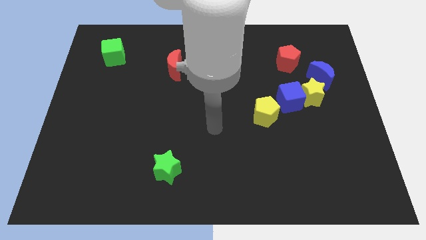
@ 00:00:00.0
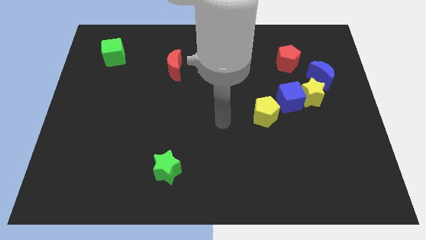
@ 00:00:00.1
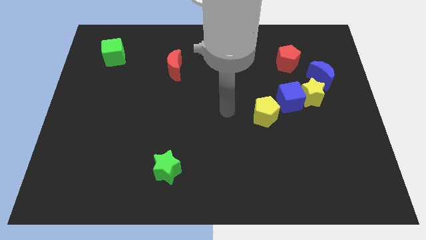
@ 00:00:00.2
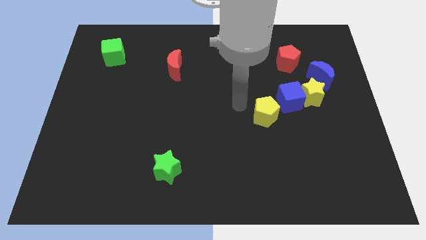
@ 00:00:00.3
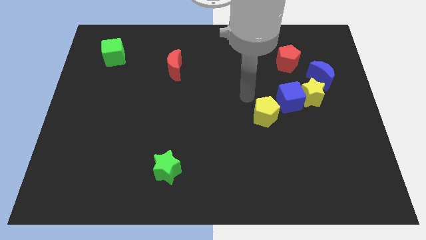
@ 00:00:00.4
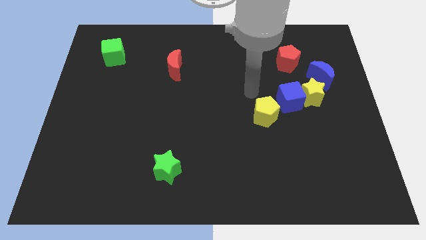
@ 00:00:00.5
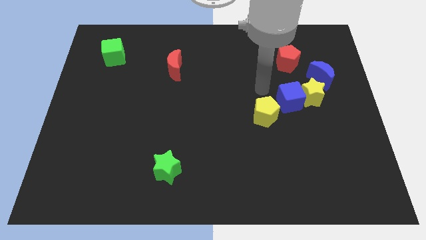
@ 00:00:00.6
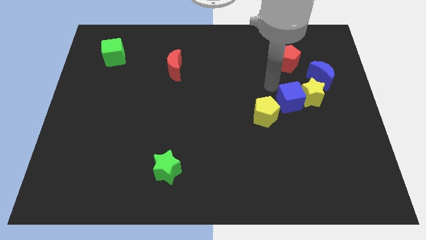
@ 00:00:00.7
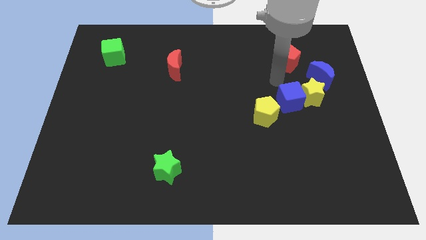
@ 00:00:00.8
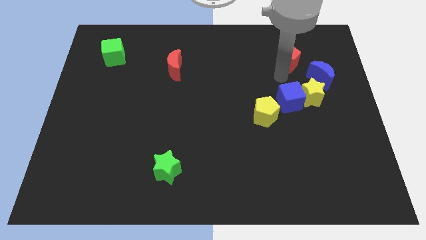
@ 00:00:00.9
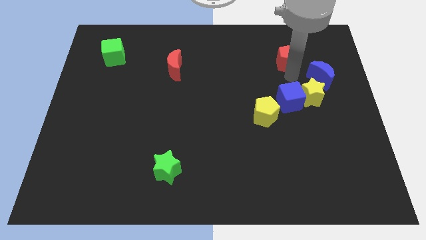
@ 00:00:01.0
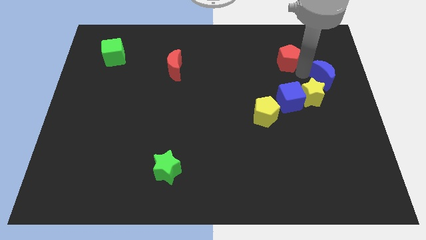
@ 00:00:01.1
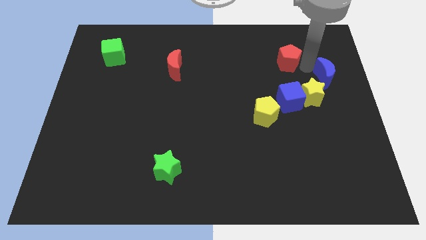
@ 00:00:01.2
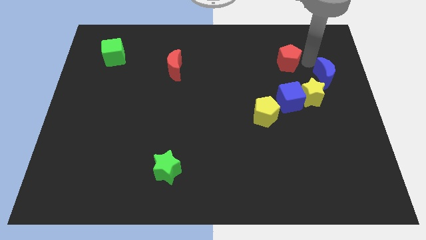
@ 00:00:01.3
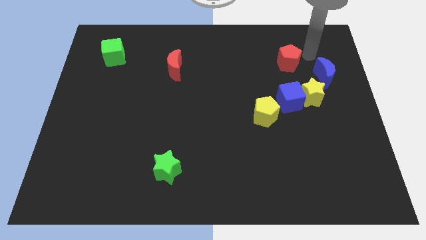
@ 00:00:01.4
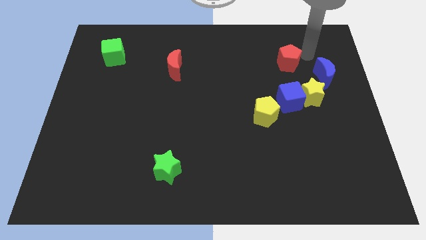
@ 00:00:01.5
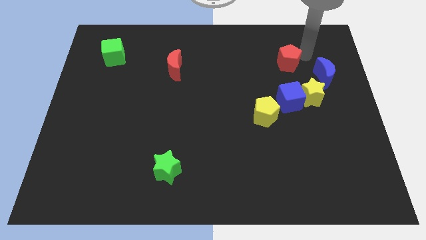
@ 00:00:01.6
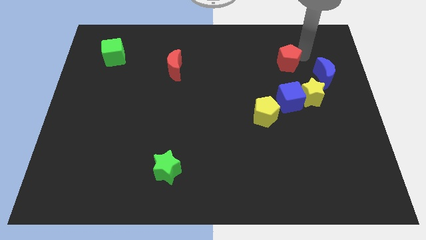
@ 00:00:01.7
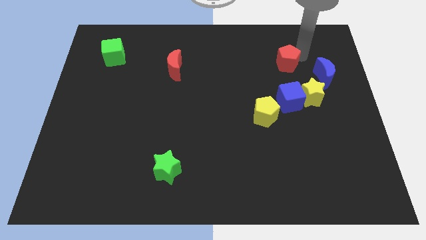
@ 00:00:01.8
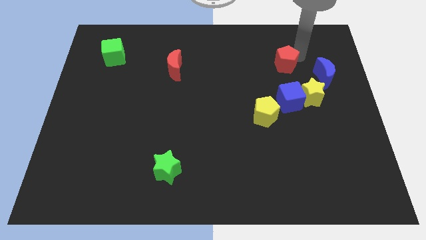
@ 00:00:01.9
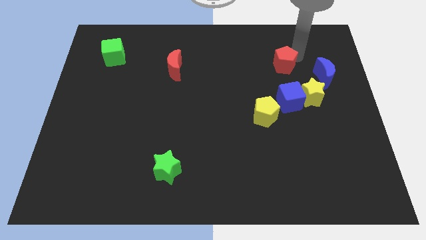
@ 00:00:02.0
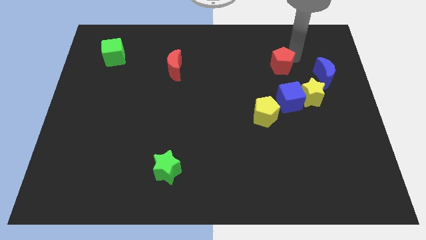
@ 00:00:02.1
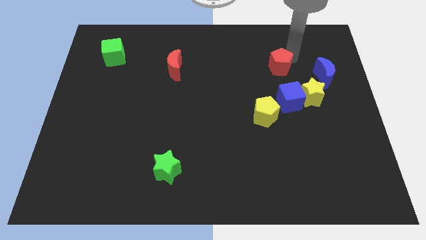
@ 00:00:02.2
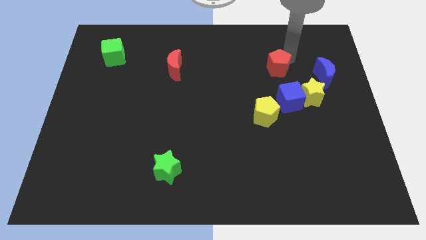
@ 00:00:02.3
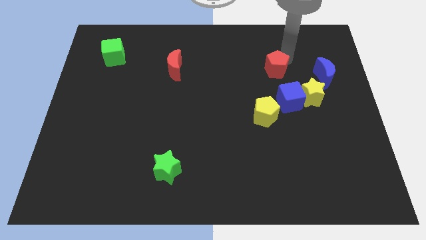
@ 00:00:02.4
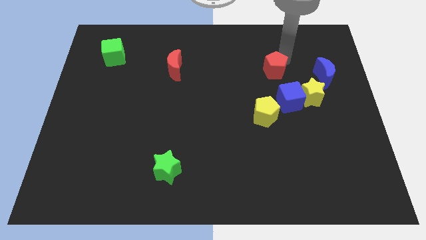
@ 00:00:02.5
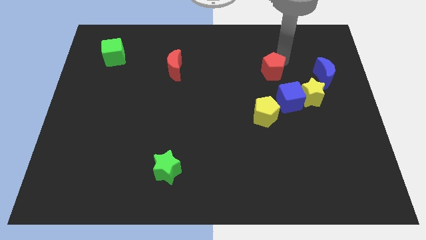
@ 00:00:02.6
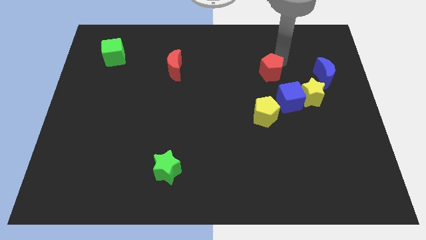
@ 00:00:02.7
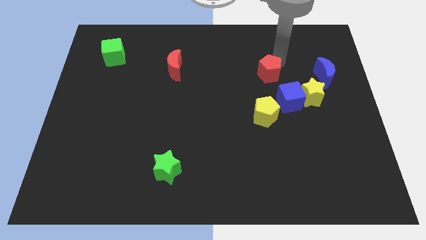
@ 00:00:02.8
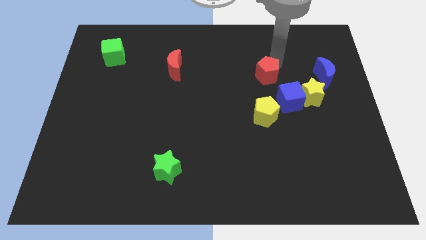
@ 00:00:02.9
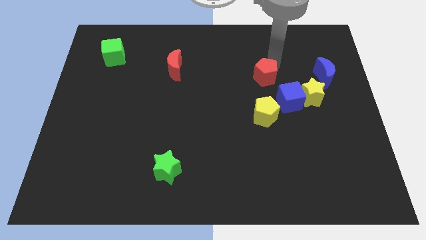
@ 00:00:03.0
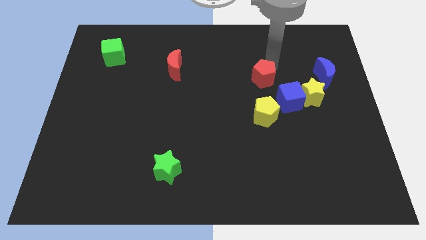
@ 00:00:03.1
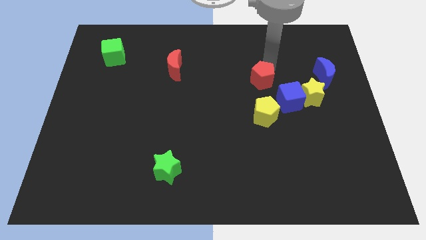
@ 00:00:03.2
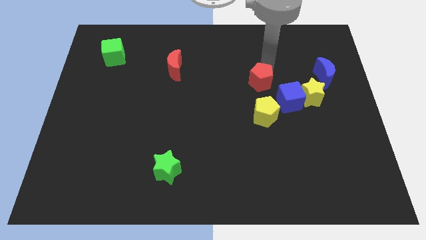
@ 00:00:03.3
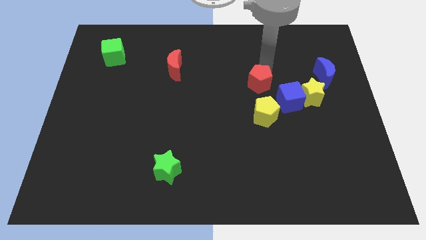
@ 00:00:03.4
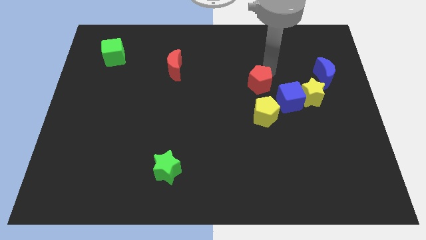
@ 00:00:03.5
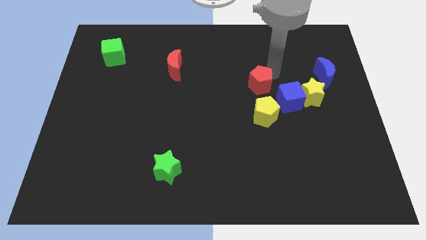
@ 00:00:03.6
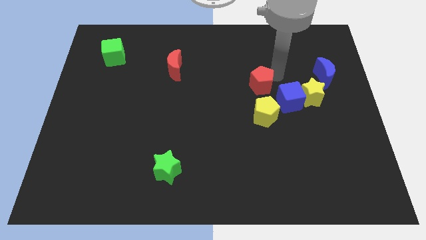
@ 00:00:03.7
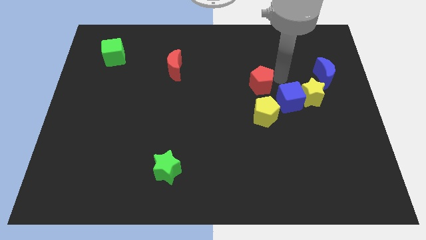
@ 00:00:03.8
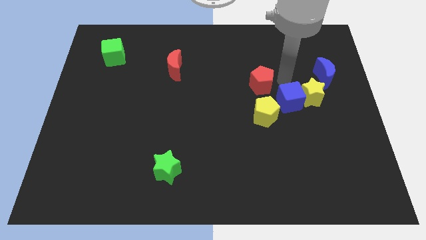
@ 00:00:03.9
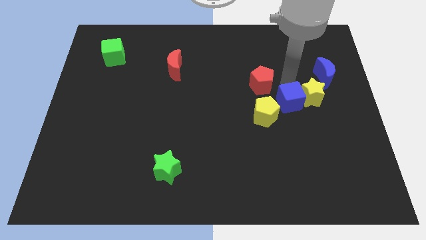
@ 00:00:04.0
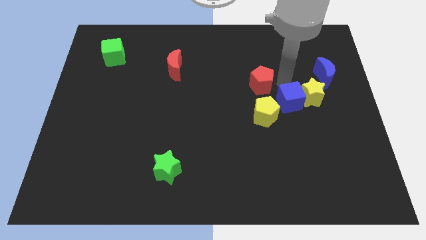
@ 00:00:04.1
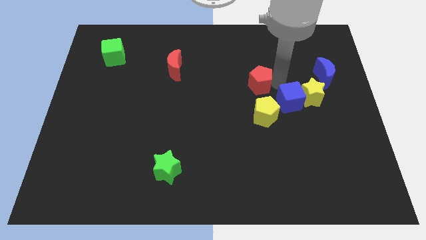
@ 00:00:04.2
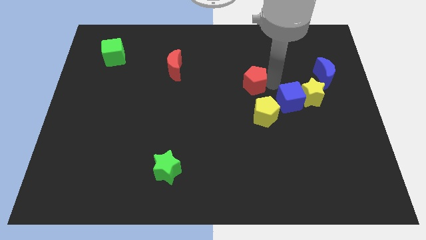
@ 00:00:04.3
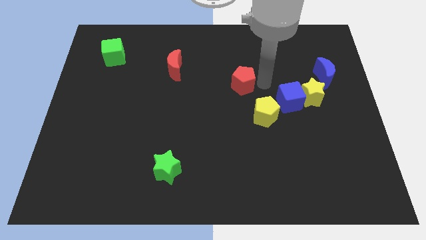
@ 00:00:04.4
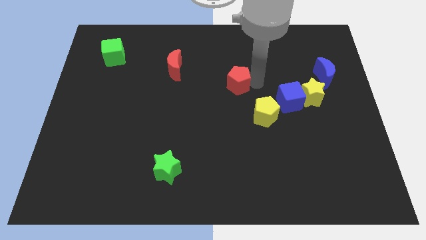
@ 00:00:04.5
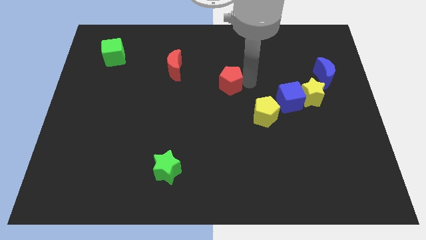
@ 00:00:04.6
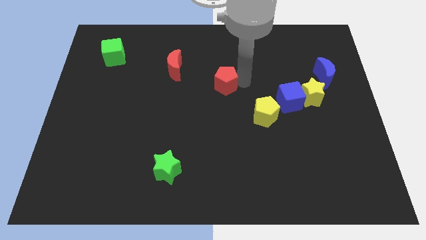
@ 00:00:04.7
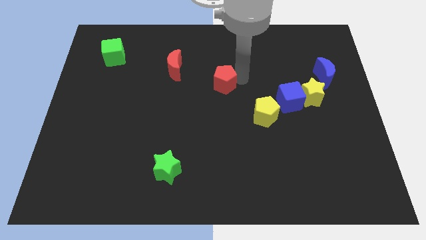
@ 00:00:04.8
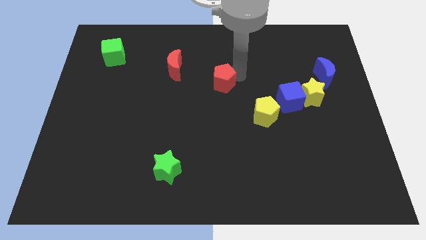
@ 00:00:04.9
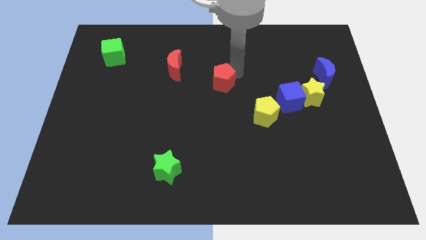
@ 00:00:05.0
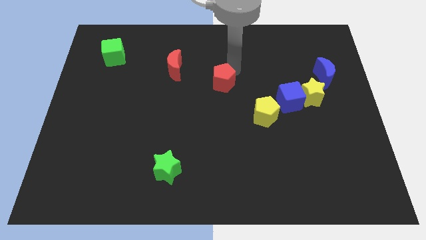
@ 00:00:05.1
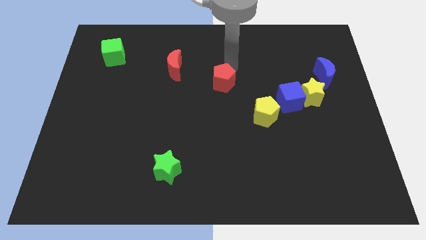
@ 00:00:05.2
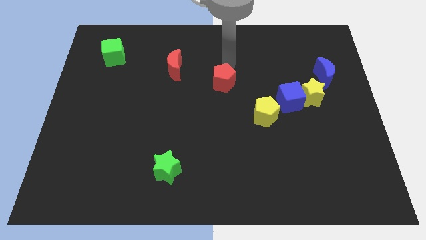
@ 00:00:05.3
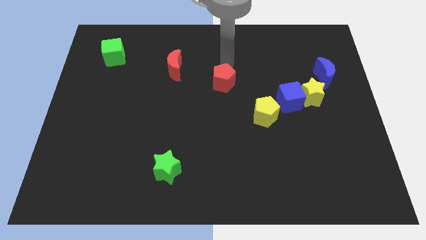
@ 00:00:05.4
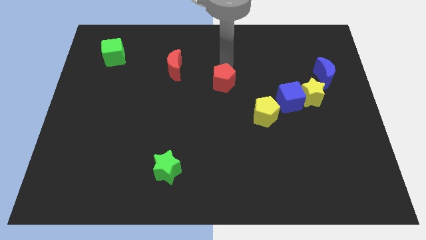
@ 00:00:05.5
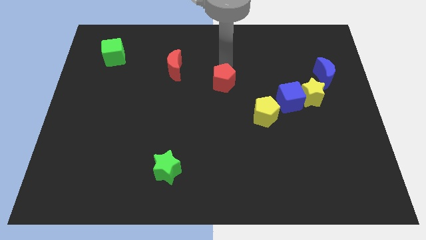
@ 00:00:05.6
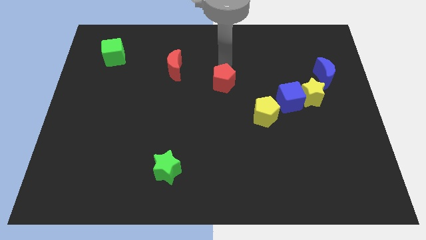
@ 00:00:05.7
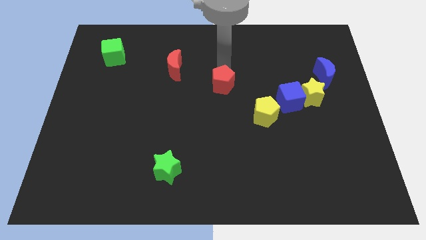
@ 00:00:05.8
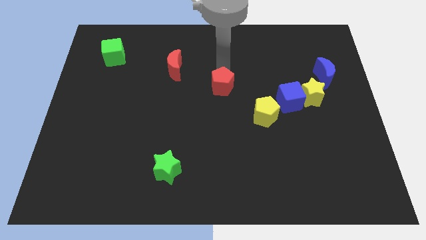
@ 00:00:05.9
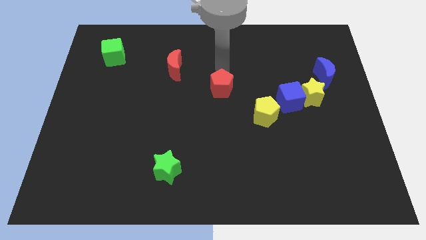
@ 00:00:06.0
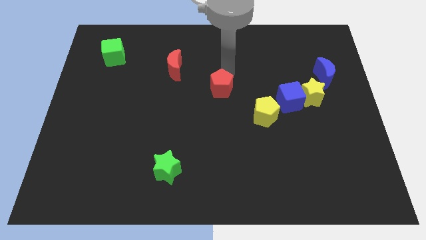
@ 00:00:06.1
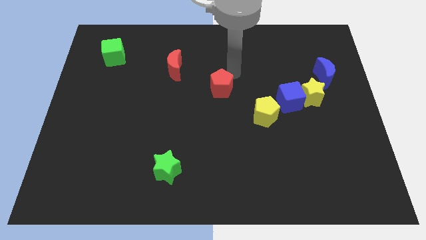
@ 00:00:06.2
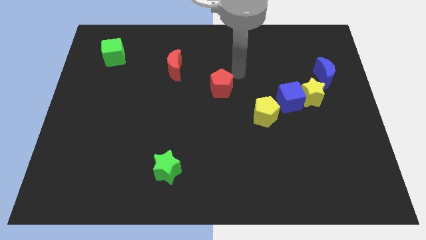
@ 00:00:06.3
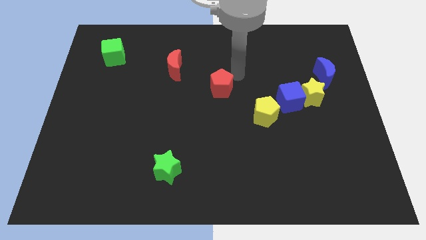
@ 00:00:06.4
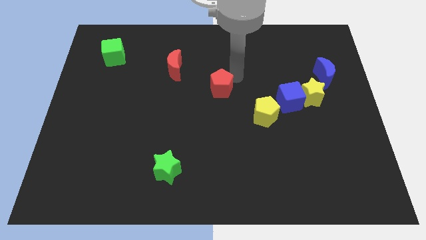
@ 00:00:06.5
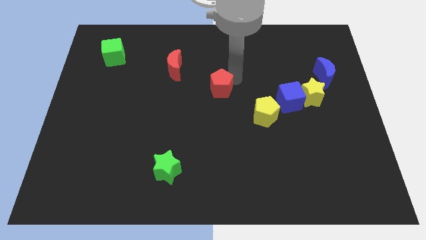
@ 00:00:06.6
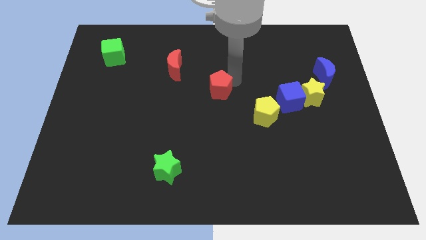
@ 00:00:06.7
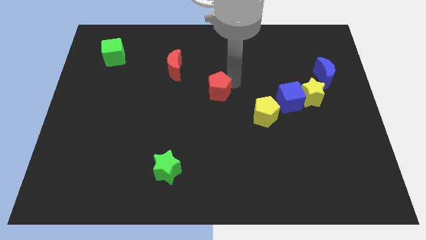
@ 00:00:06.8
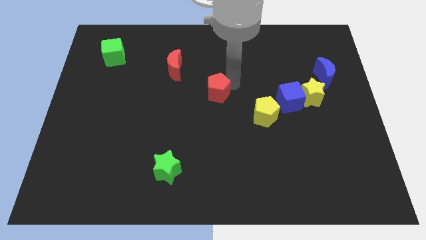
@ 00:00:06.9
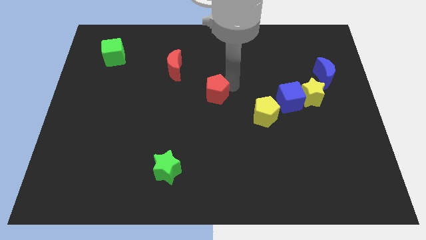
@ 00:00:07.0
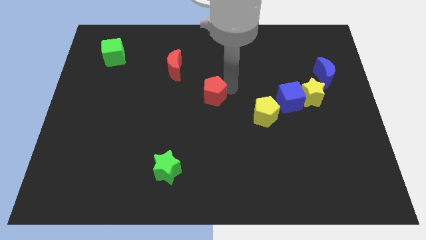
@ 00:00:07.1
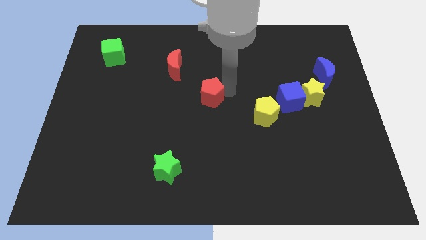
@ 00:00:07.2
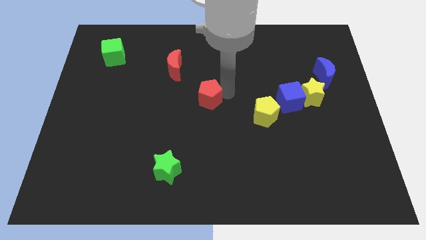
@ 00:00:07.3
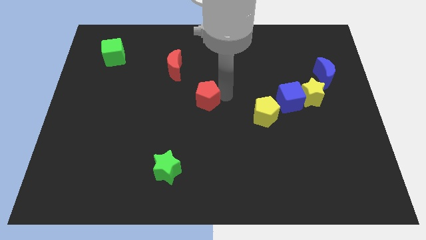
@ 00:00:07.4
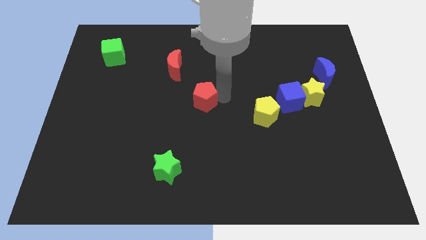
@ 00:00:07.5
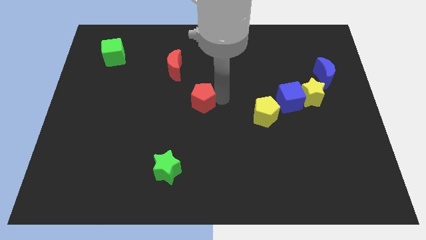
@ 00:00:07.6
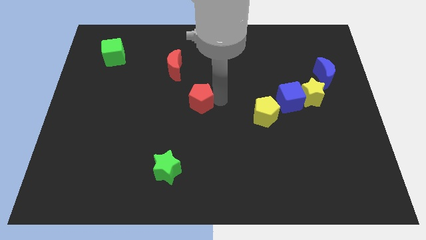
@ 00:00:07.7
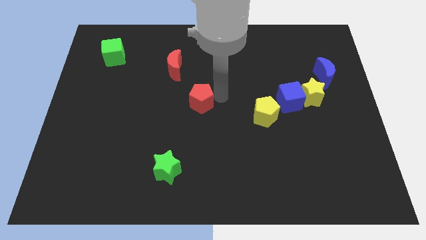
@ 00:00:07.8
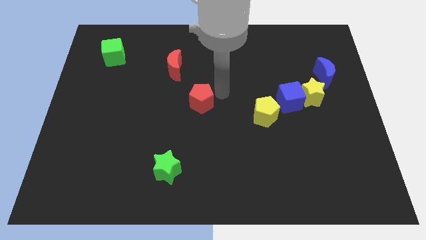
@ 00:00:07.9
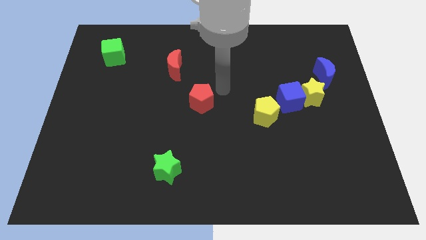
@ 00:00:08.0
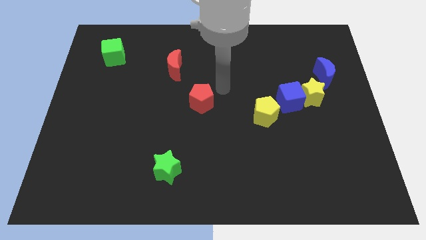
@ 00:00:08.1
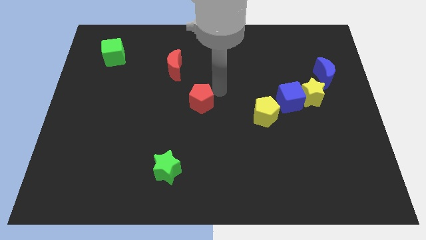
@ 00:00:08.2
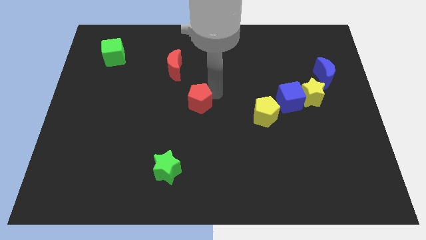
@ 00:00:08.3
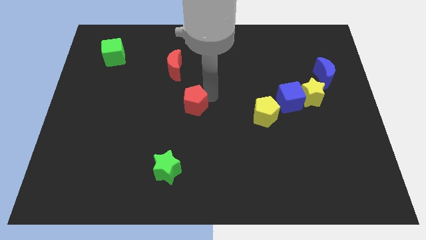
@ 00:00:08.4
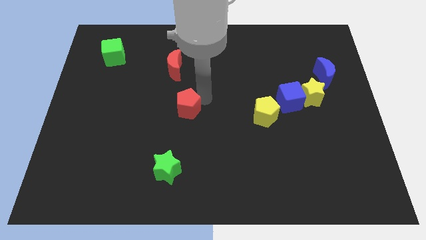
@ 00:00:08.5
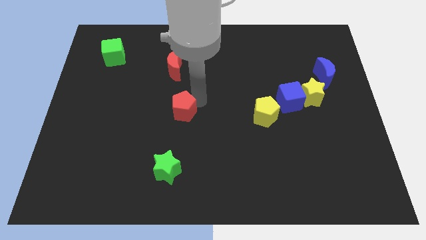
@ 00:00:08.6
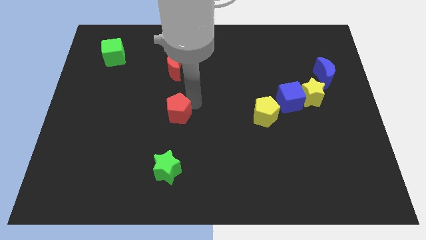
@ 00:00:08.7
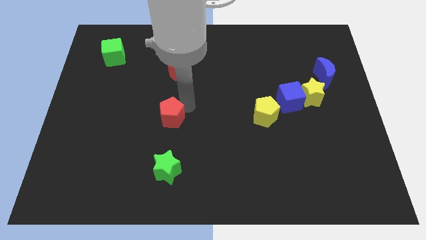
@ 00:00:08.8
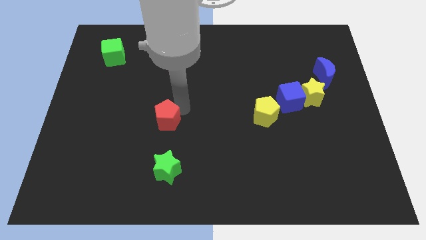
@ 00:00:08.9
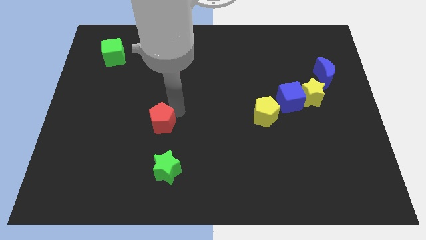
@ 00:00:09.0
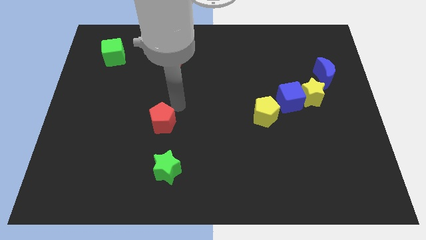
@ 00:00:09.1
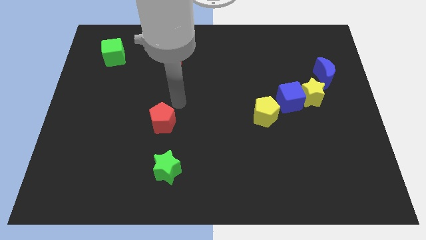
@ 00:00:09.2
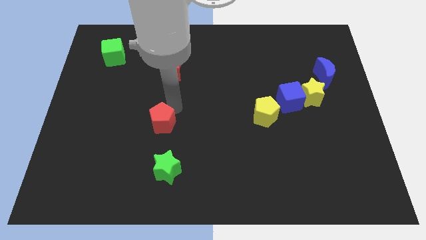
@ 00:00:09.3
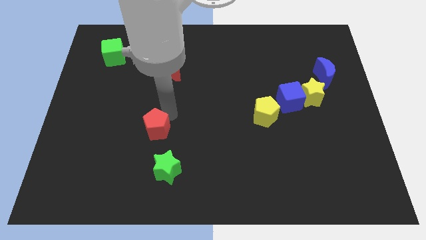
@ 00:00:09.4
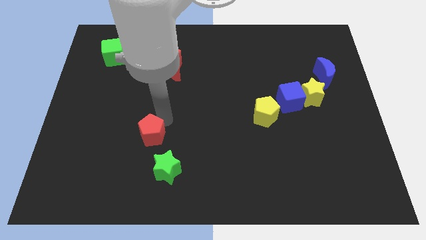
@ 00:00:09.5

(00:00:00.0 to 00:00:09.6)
push the red pentagon to the top left of the green star
